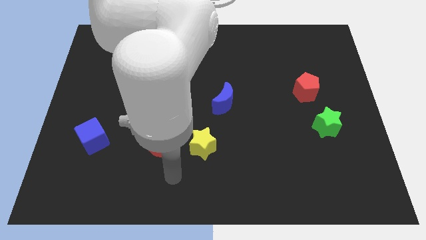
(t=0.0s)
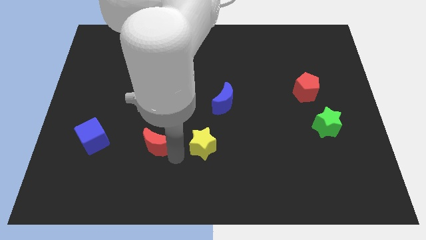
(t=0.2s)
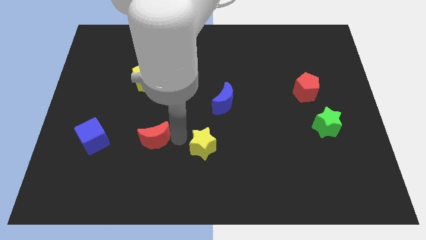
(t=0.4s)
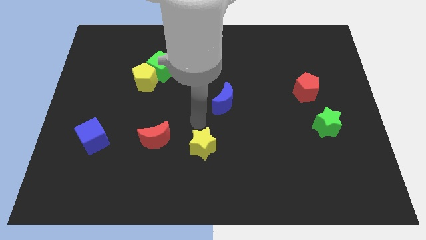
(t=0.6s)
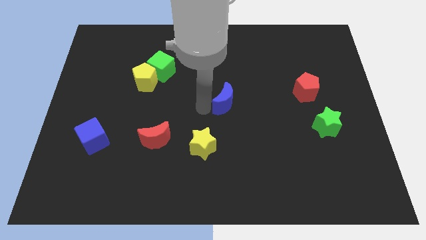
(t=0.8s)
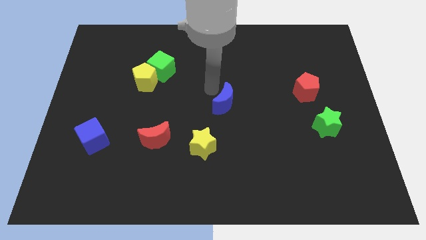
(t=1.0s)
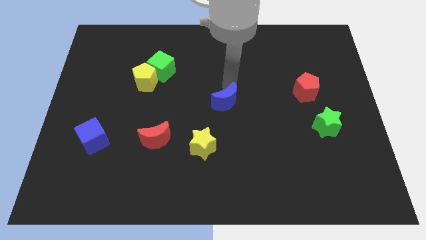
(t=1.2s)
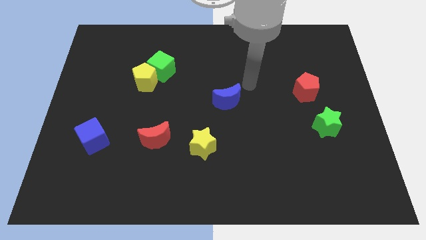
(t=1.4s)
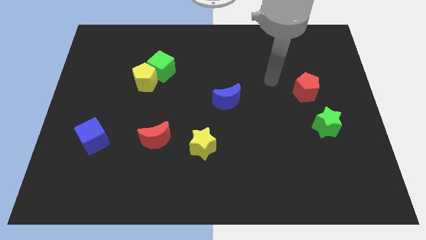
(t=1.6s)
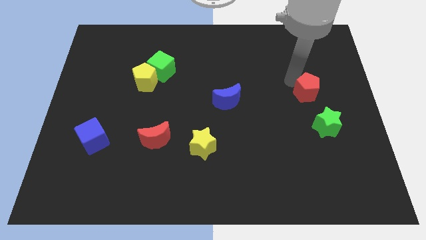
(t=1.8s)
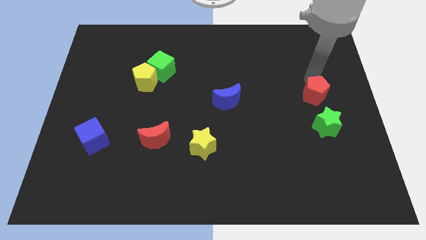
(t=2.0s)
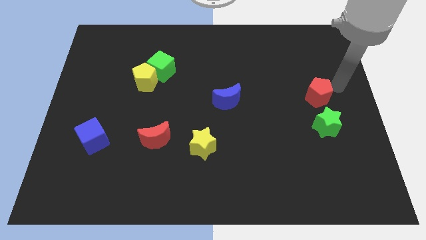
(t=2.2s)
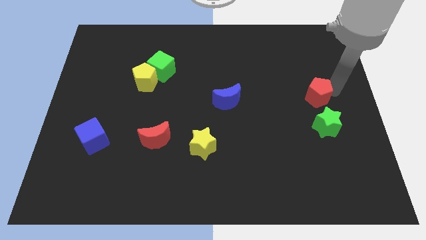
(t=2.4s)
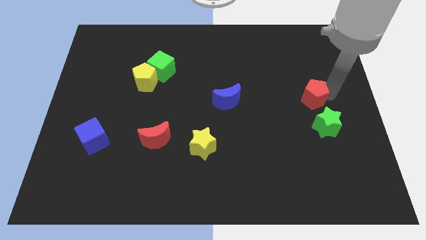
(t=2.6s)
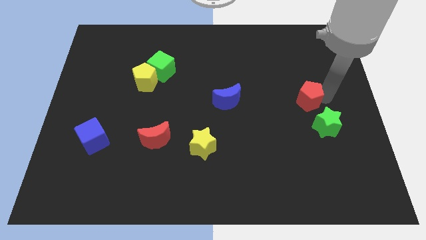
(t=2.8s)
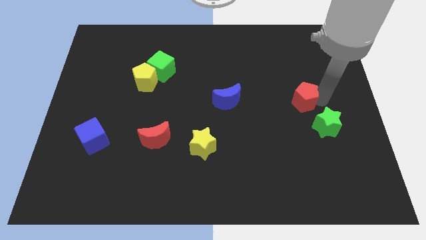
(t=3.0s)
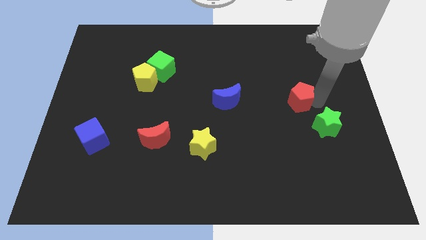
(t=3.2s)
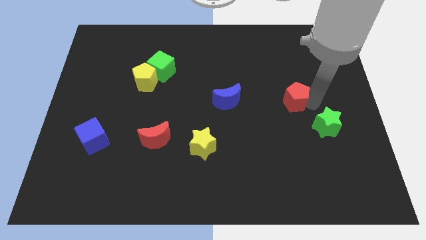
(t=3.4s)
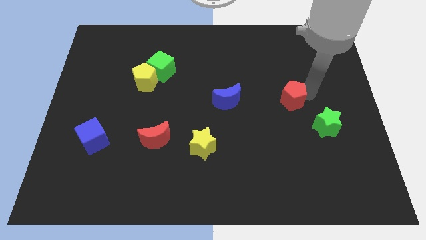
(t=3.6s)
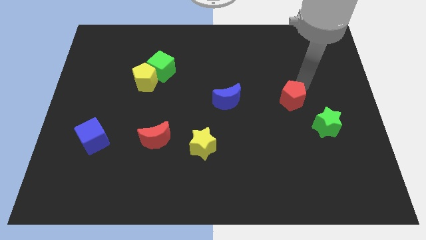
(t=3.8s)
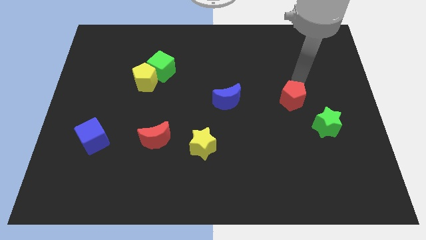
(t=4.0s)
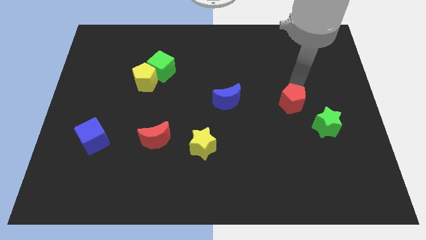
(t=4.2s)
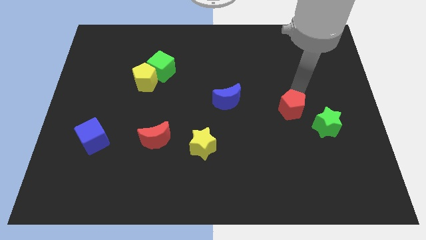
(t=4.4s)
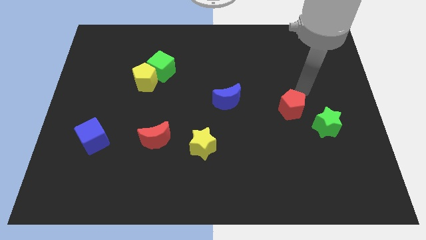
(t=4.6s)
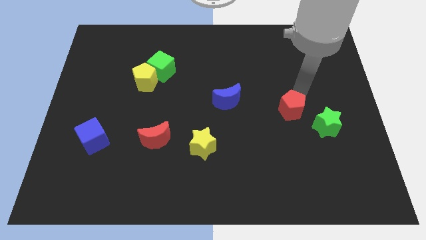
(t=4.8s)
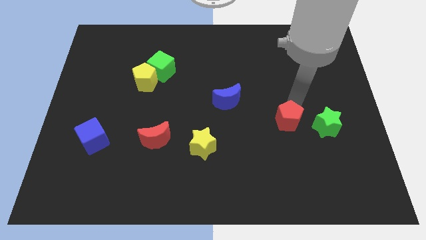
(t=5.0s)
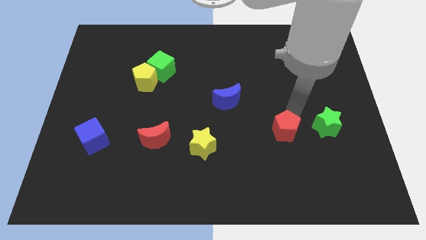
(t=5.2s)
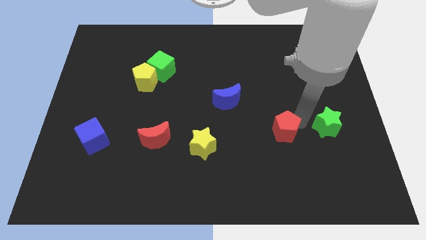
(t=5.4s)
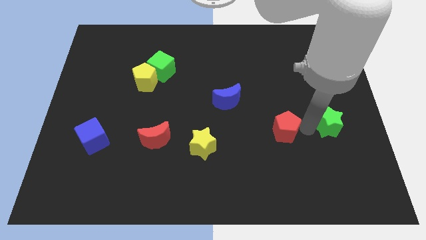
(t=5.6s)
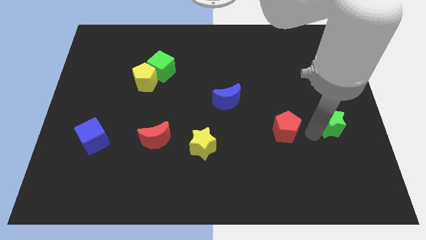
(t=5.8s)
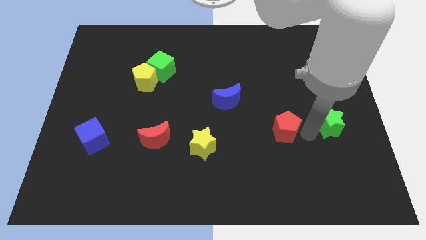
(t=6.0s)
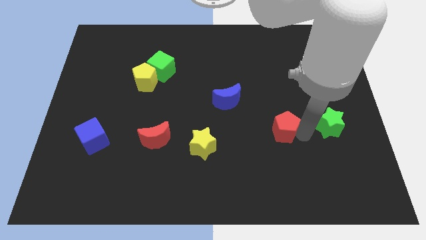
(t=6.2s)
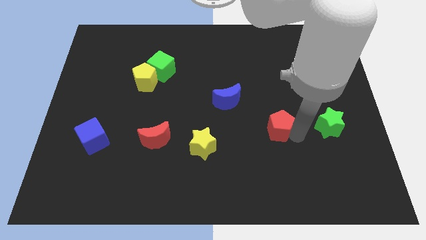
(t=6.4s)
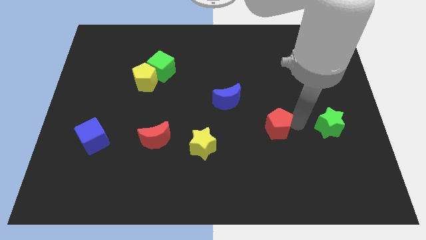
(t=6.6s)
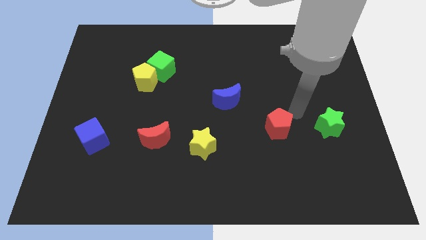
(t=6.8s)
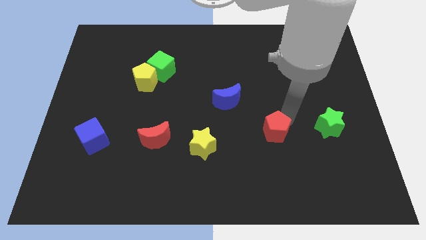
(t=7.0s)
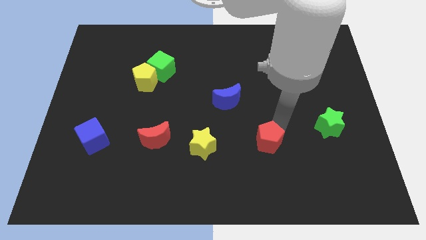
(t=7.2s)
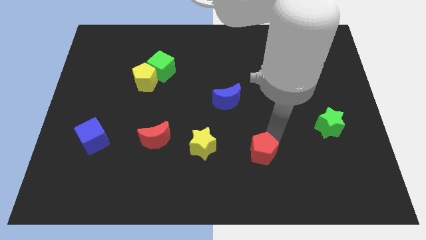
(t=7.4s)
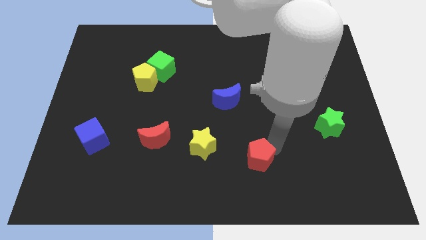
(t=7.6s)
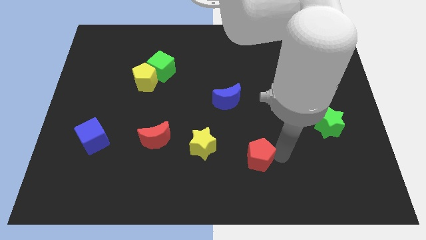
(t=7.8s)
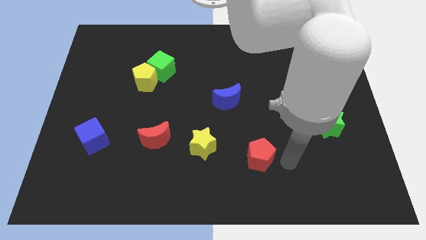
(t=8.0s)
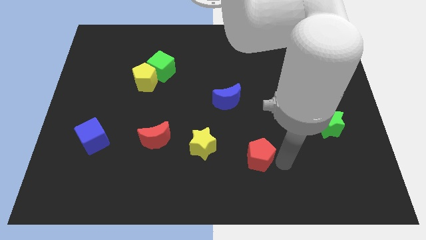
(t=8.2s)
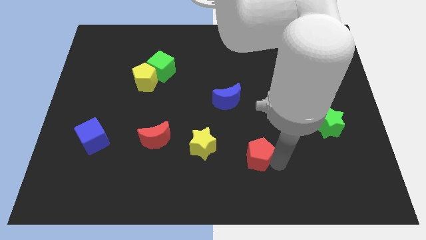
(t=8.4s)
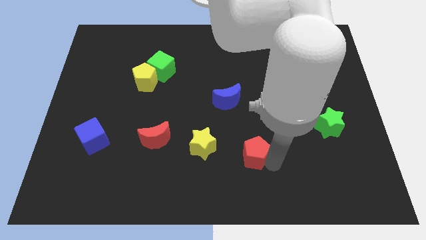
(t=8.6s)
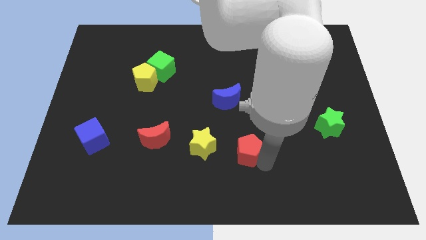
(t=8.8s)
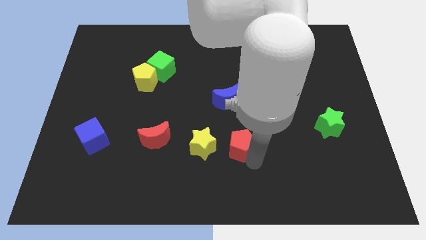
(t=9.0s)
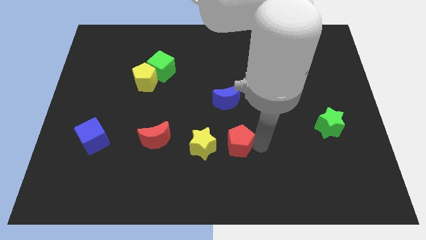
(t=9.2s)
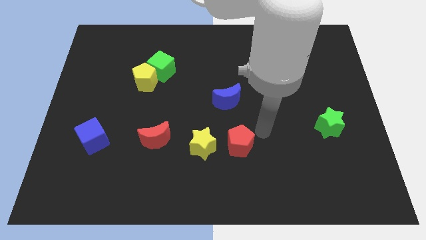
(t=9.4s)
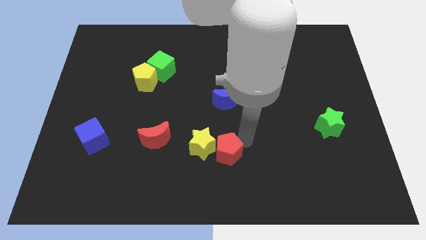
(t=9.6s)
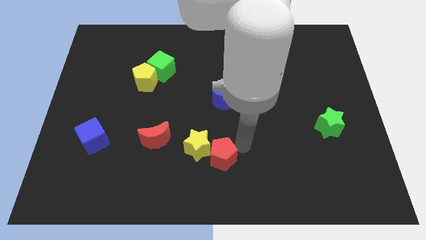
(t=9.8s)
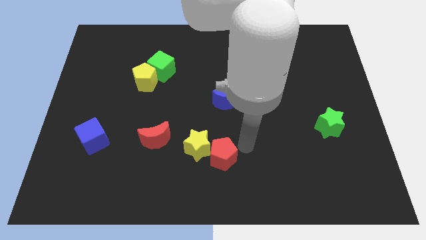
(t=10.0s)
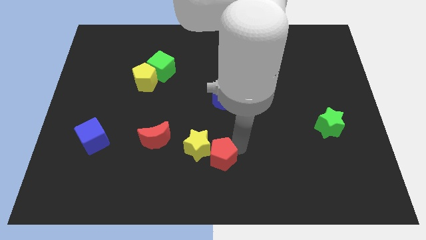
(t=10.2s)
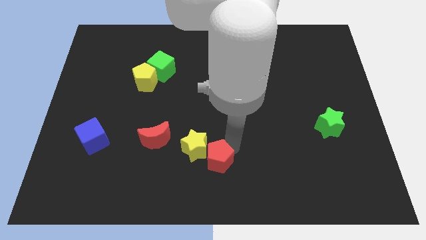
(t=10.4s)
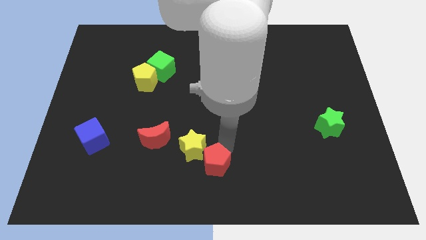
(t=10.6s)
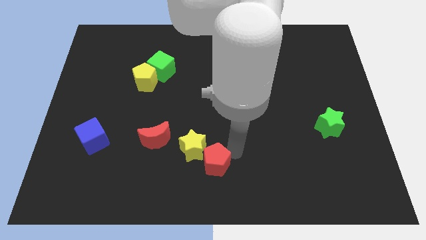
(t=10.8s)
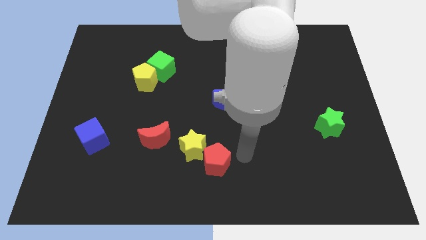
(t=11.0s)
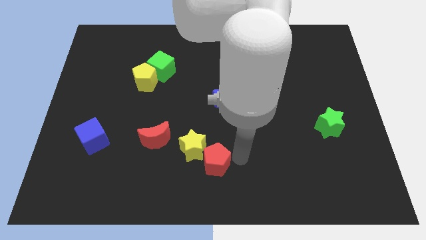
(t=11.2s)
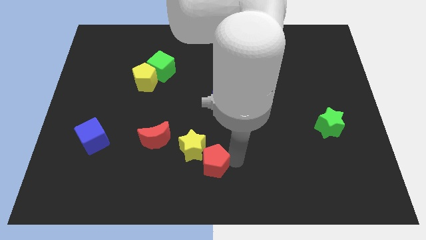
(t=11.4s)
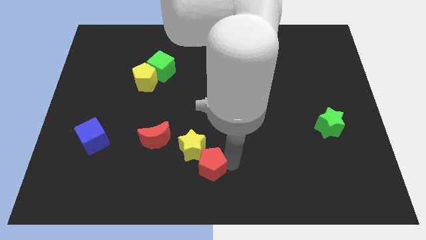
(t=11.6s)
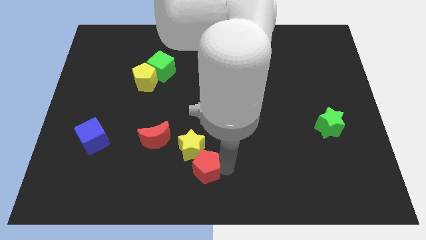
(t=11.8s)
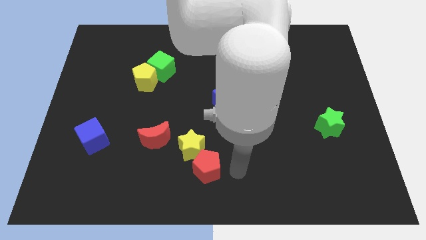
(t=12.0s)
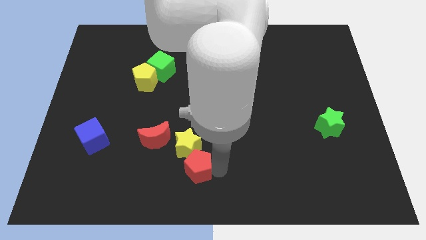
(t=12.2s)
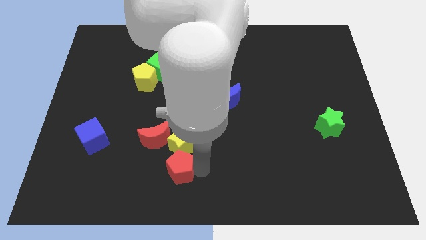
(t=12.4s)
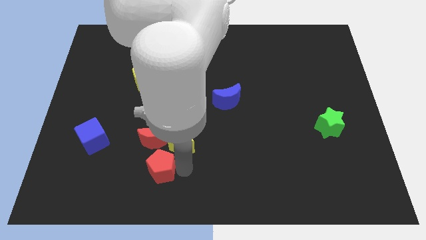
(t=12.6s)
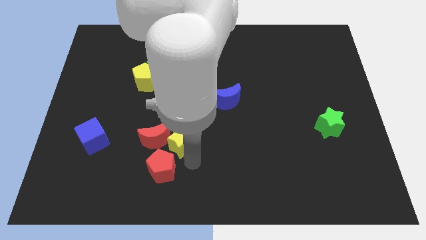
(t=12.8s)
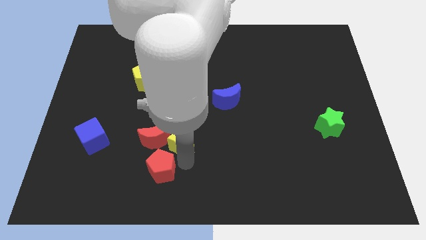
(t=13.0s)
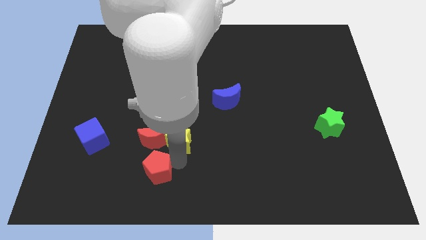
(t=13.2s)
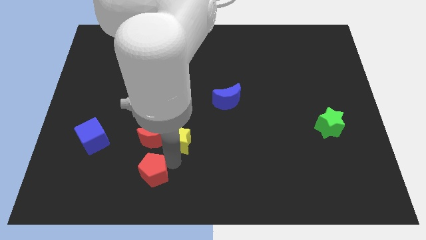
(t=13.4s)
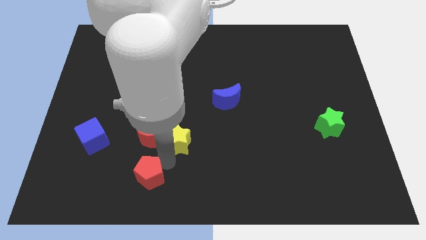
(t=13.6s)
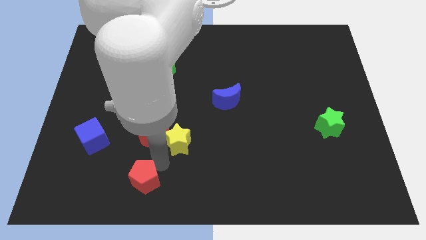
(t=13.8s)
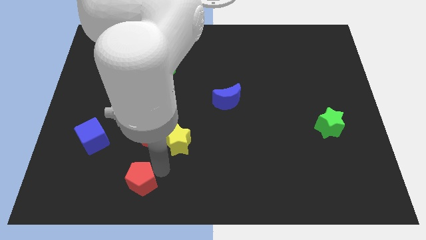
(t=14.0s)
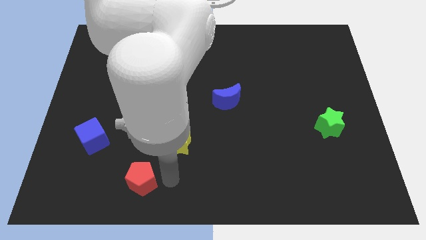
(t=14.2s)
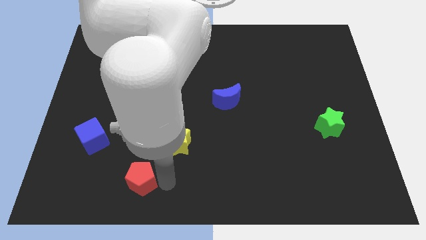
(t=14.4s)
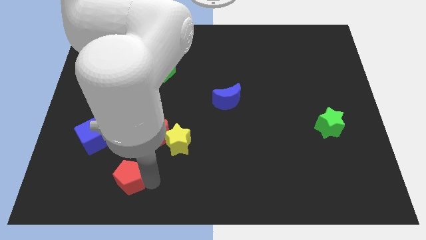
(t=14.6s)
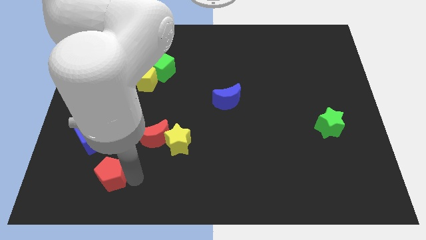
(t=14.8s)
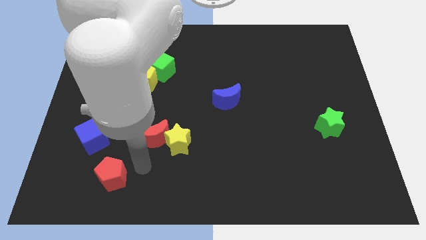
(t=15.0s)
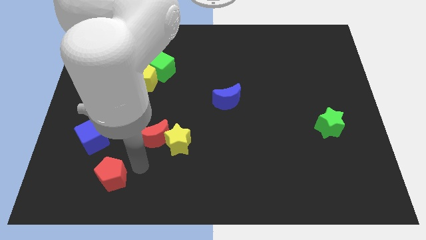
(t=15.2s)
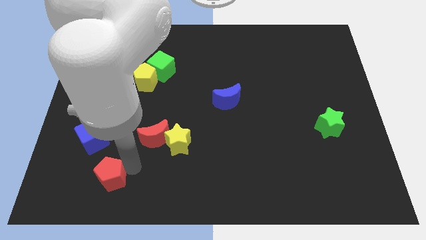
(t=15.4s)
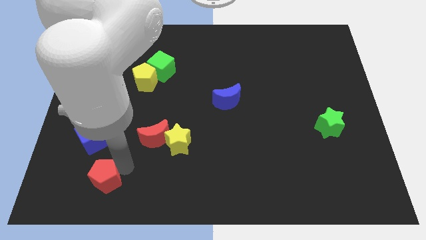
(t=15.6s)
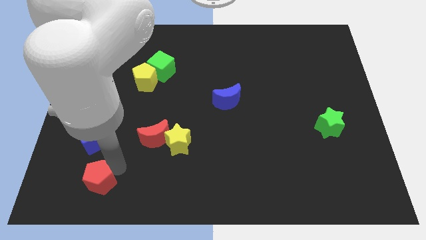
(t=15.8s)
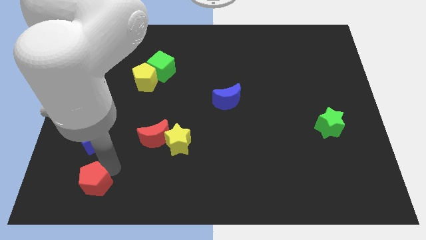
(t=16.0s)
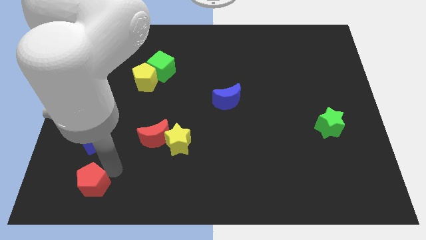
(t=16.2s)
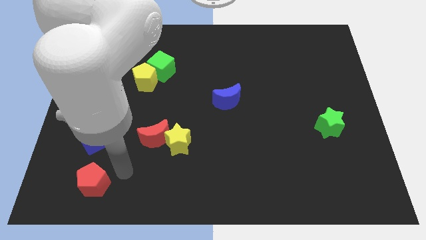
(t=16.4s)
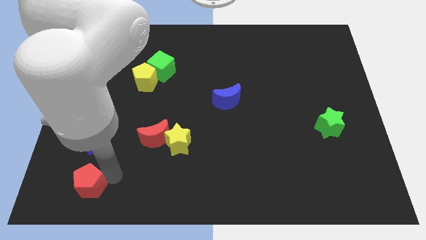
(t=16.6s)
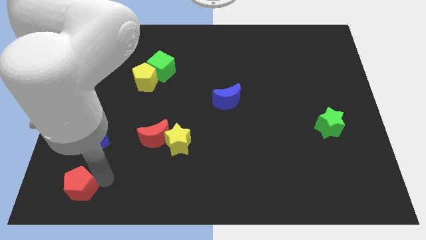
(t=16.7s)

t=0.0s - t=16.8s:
move the red pentagon to the bottom left of the board
